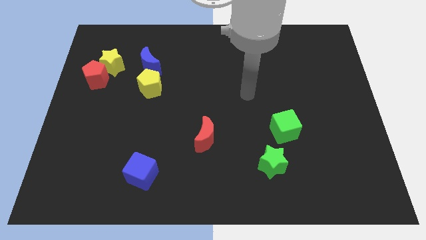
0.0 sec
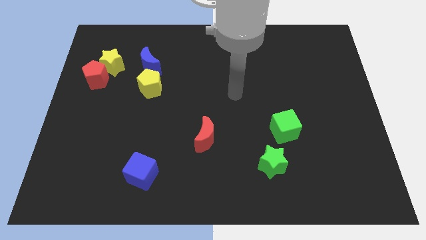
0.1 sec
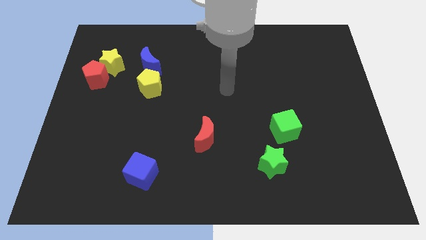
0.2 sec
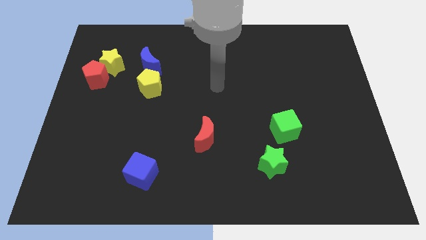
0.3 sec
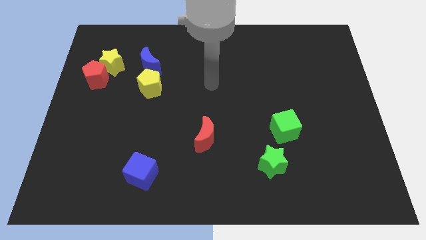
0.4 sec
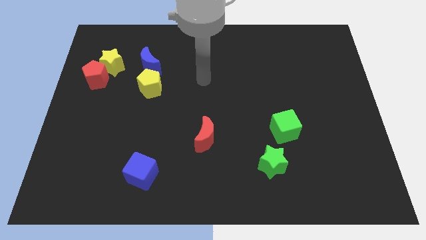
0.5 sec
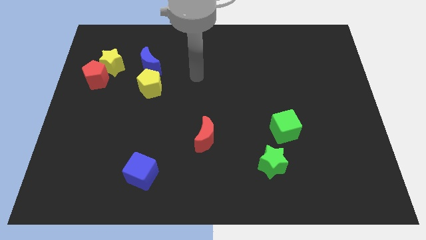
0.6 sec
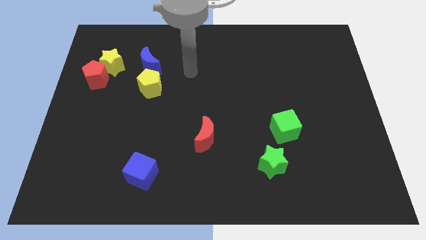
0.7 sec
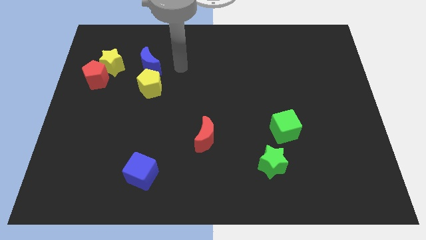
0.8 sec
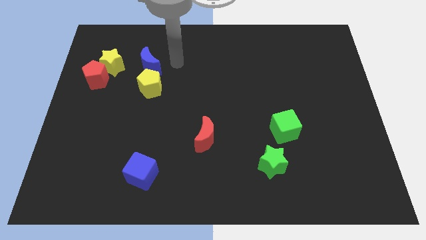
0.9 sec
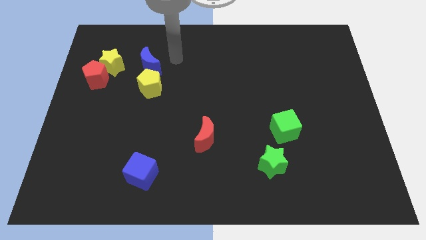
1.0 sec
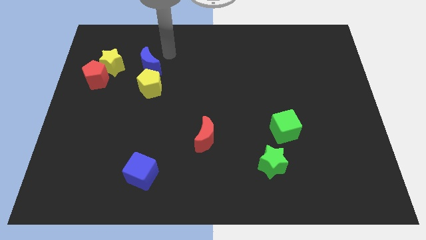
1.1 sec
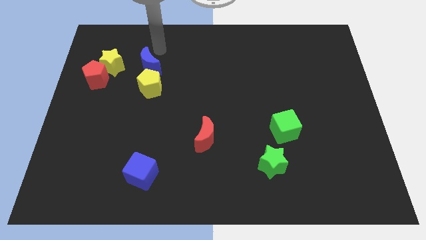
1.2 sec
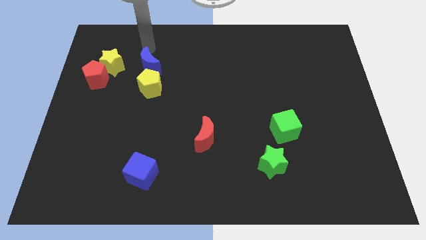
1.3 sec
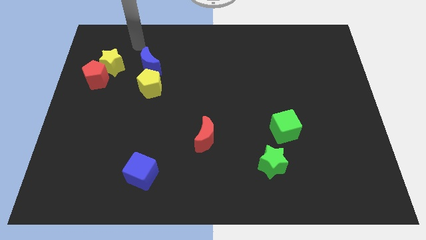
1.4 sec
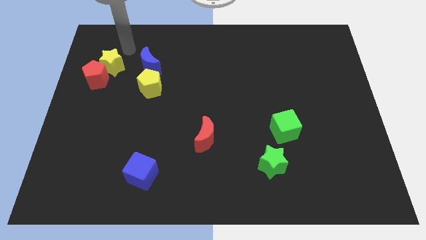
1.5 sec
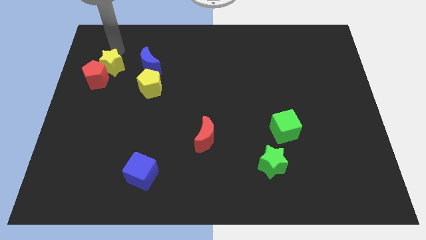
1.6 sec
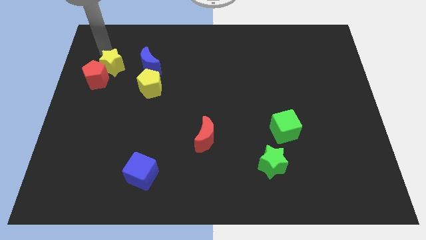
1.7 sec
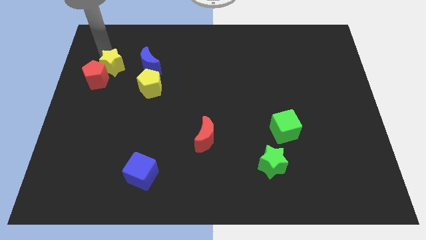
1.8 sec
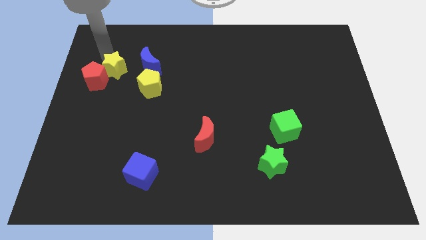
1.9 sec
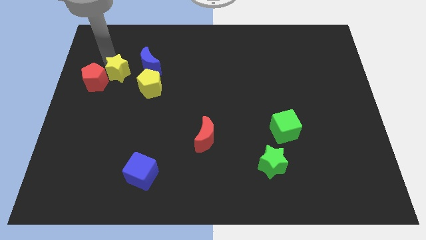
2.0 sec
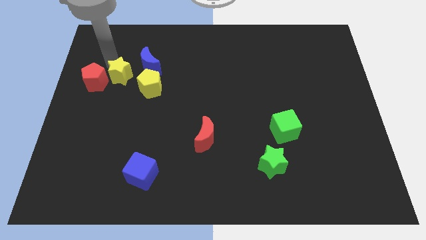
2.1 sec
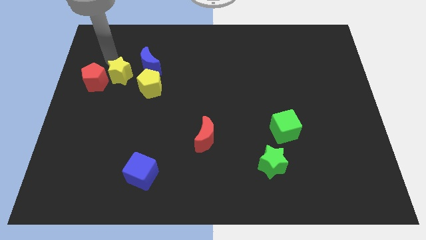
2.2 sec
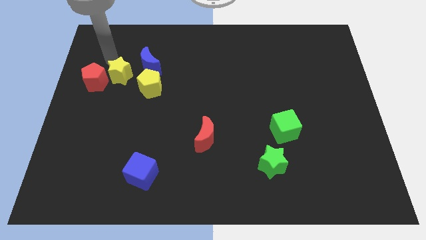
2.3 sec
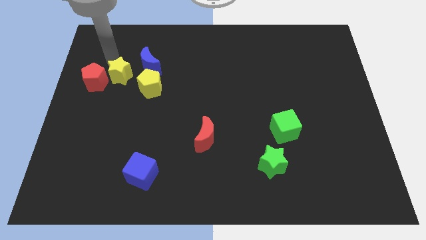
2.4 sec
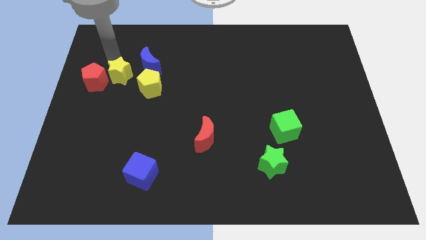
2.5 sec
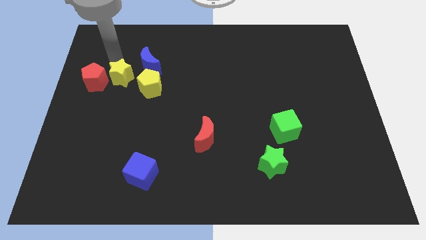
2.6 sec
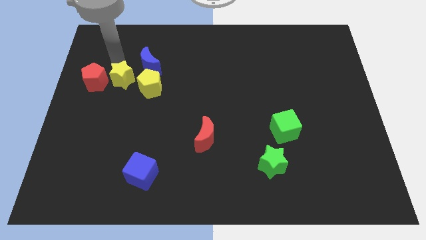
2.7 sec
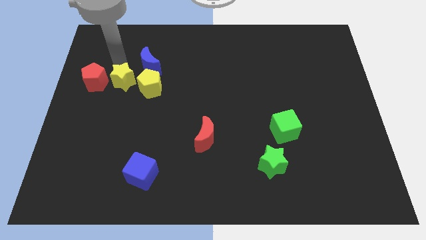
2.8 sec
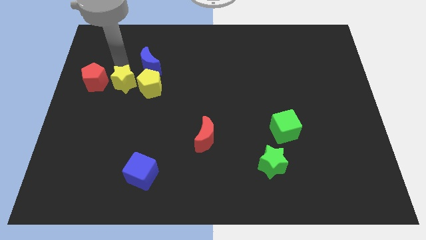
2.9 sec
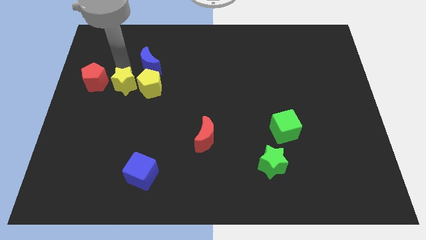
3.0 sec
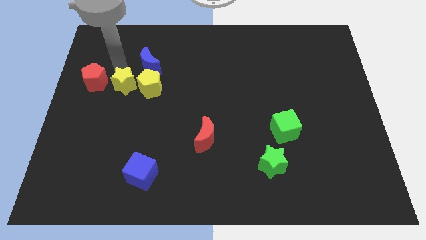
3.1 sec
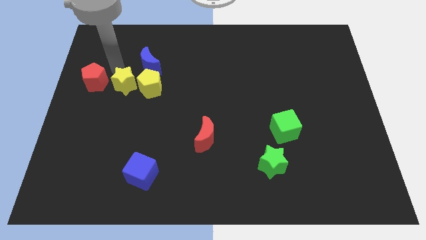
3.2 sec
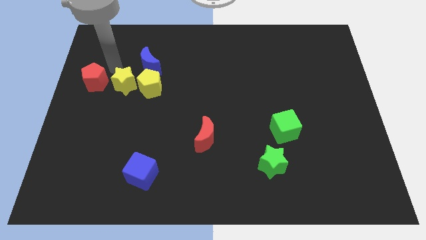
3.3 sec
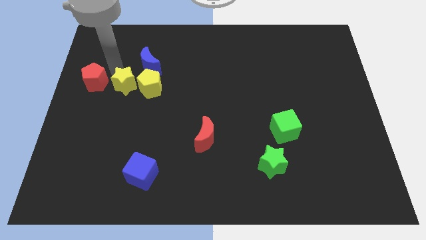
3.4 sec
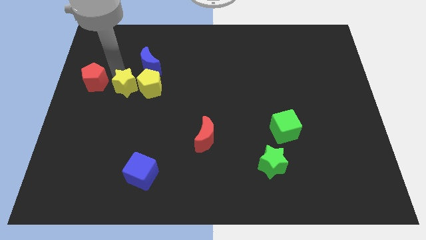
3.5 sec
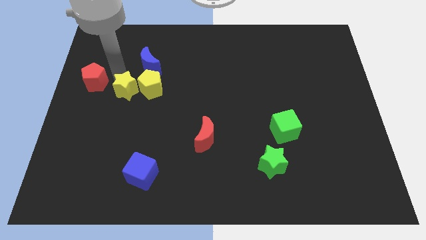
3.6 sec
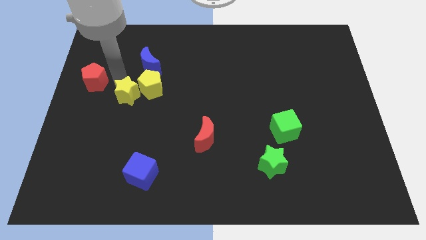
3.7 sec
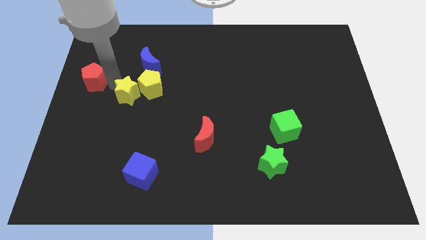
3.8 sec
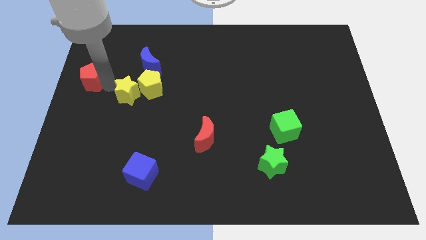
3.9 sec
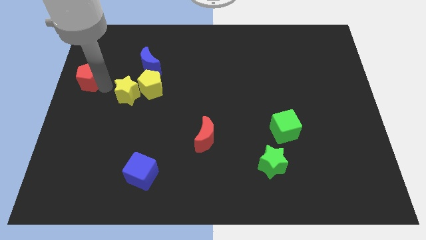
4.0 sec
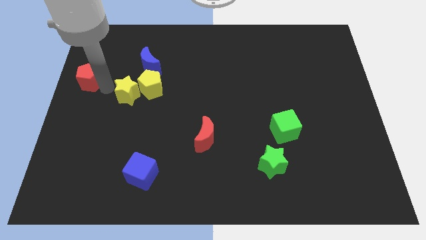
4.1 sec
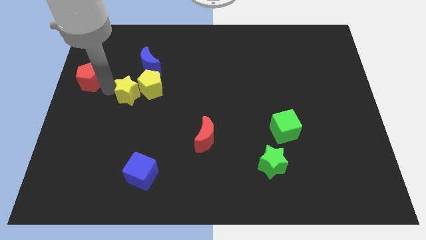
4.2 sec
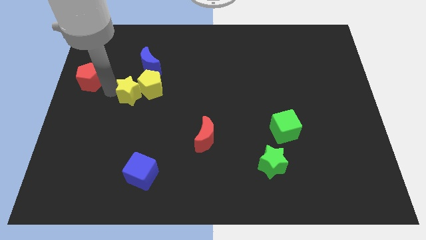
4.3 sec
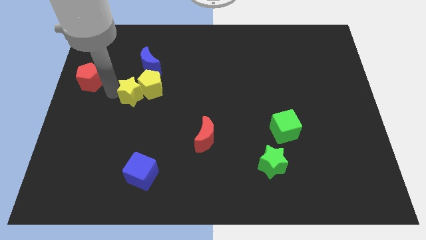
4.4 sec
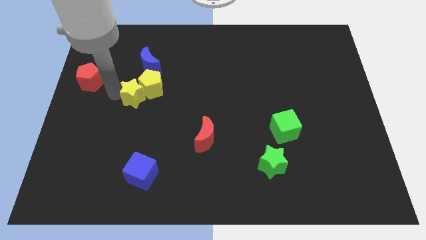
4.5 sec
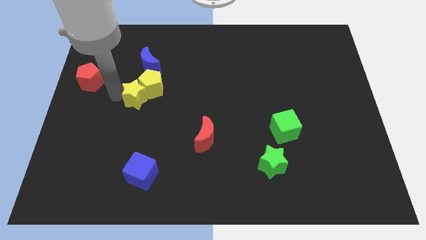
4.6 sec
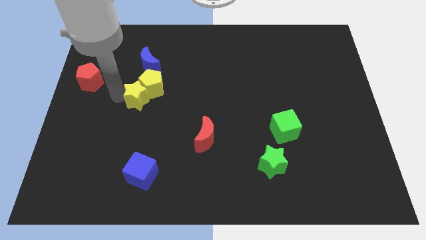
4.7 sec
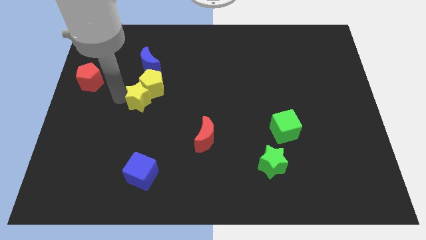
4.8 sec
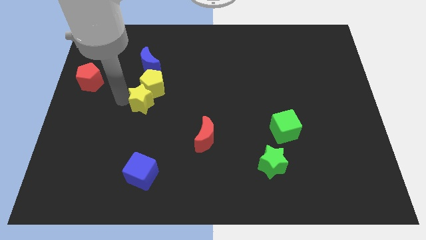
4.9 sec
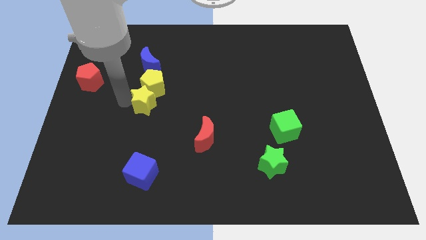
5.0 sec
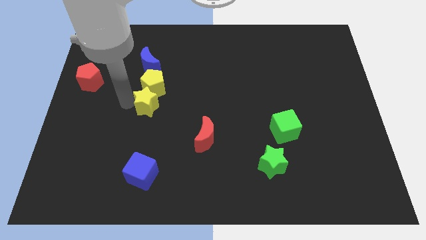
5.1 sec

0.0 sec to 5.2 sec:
put the yellow star to the bottom right side of the yellow pentagon

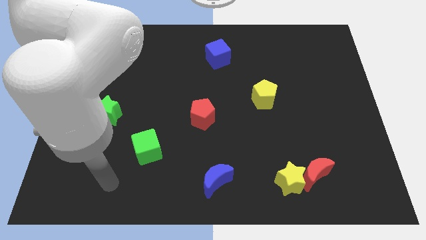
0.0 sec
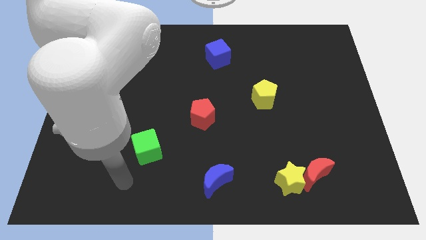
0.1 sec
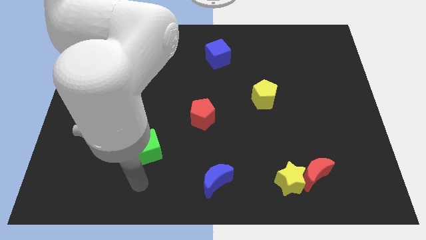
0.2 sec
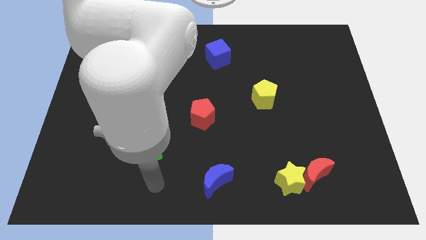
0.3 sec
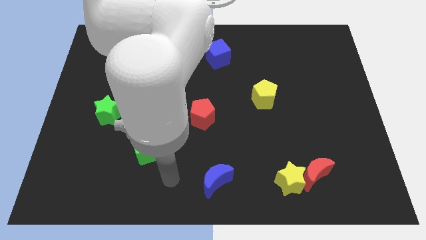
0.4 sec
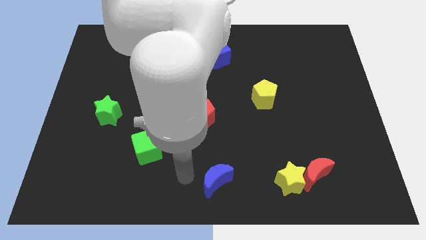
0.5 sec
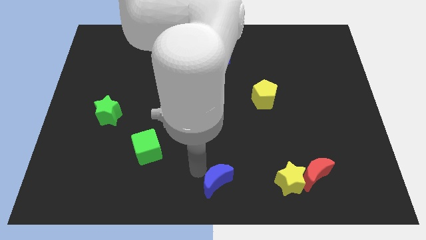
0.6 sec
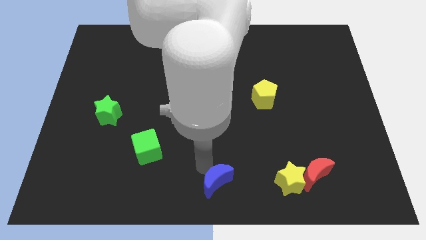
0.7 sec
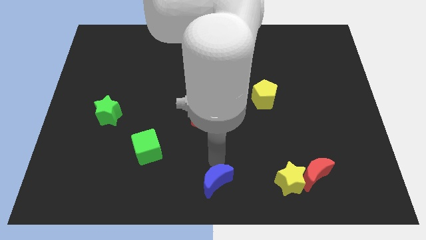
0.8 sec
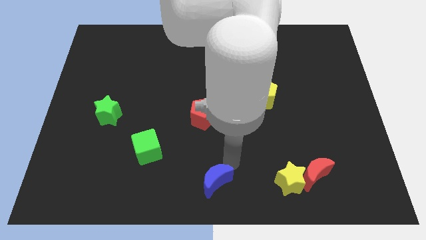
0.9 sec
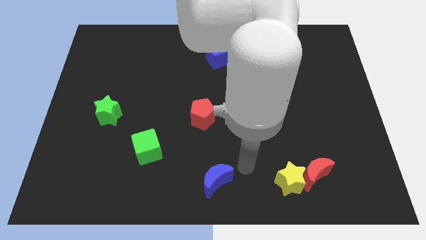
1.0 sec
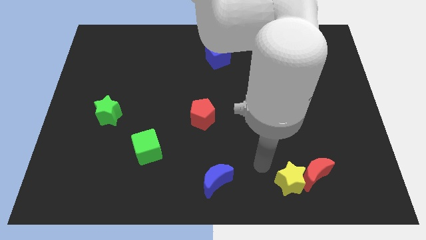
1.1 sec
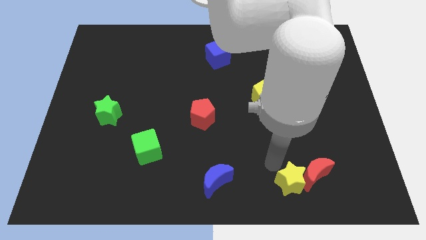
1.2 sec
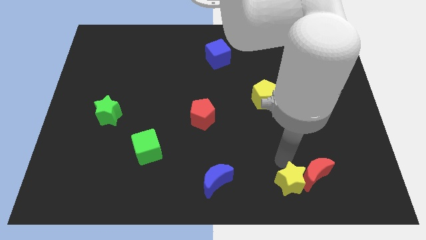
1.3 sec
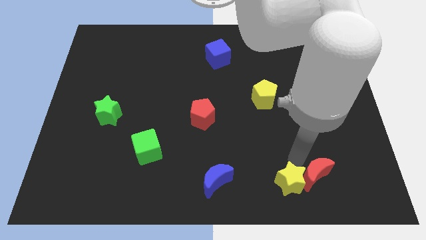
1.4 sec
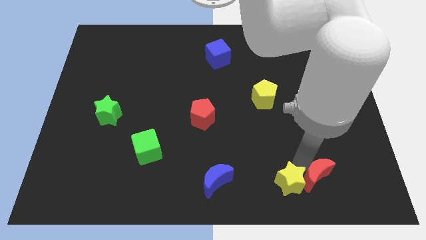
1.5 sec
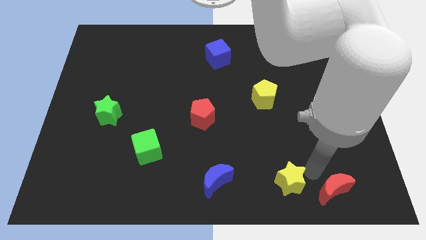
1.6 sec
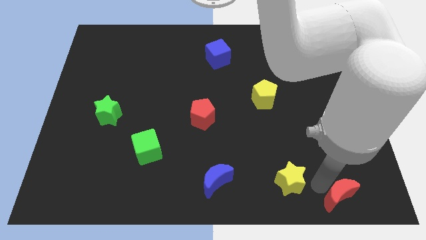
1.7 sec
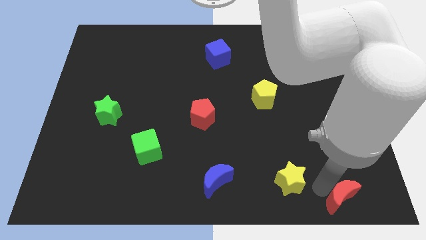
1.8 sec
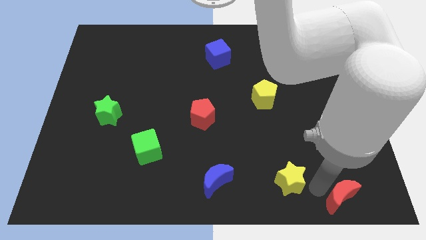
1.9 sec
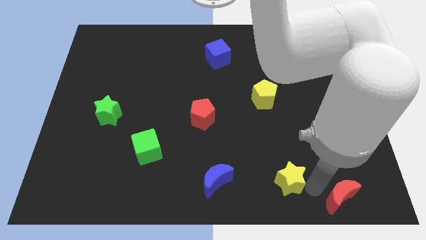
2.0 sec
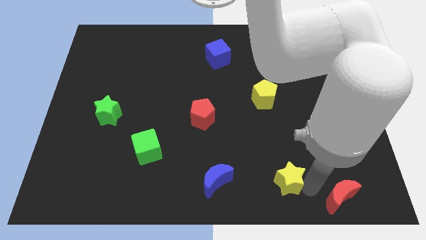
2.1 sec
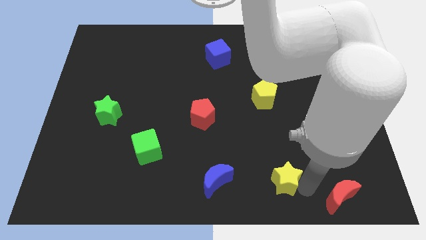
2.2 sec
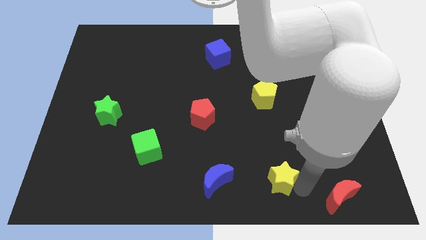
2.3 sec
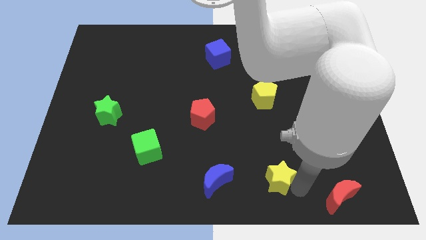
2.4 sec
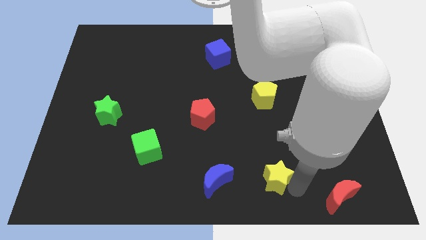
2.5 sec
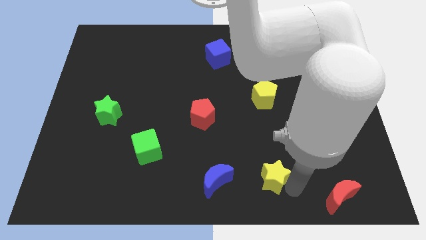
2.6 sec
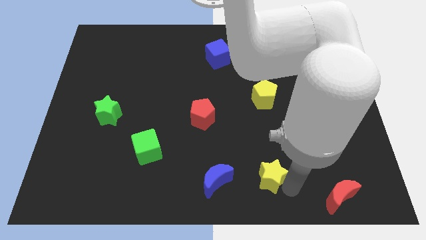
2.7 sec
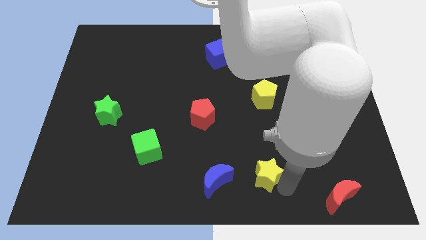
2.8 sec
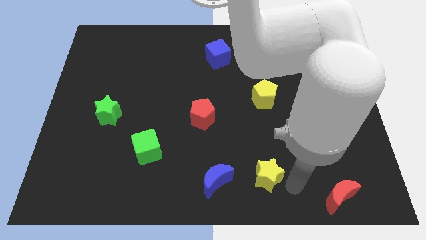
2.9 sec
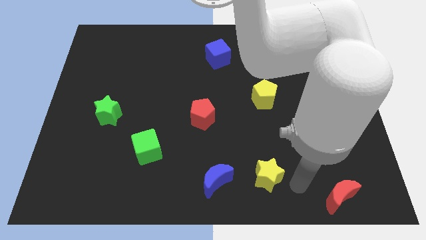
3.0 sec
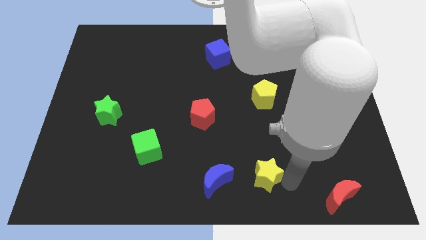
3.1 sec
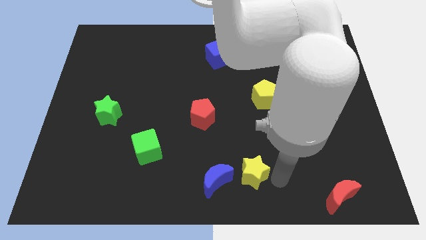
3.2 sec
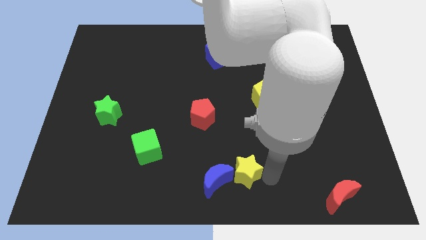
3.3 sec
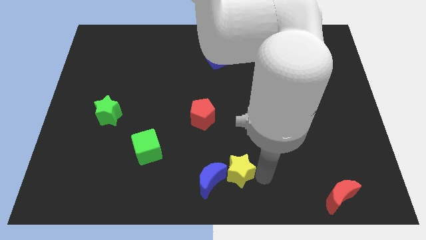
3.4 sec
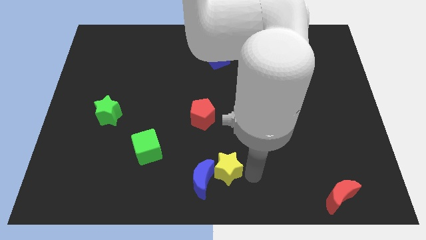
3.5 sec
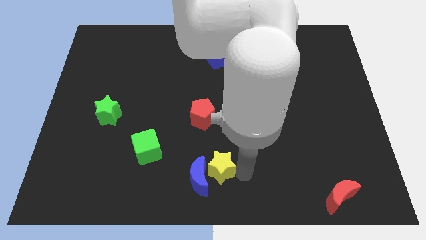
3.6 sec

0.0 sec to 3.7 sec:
move the yellow star to the bottom of the red pentagon
